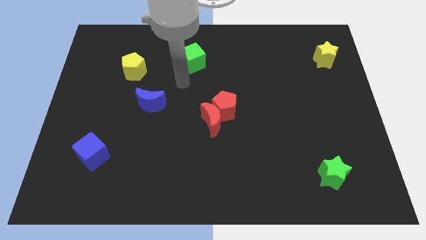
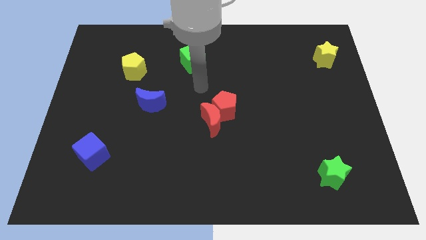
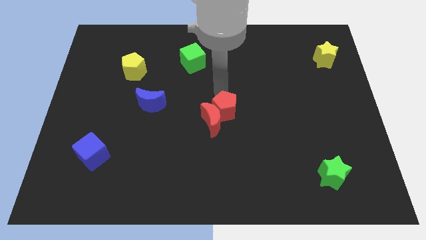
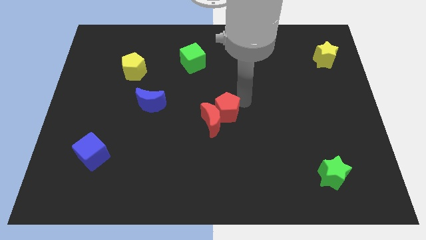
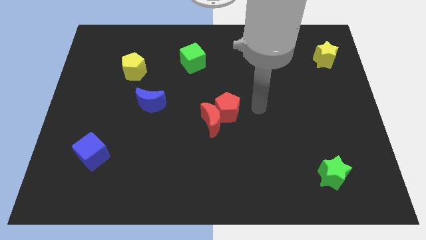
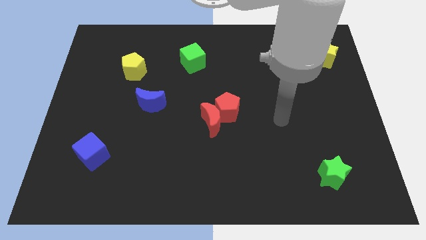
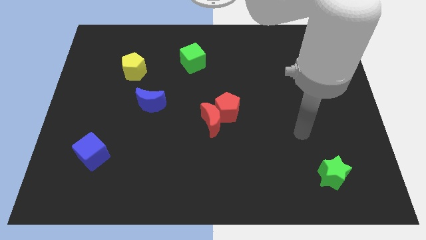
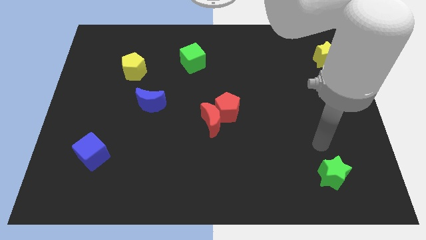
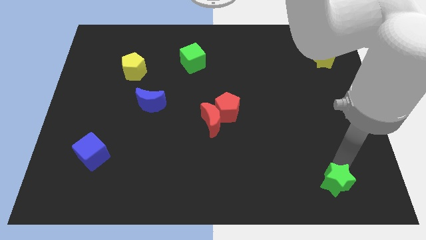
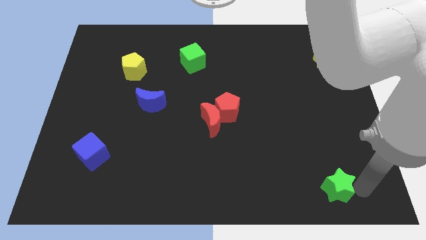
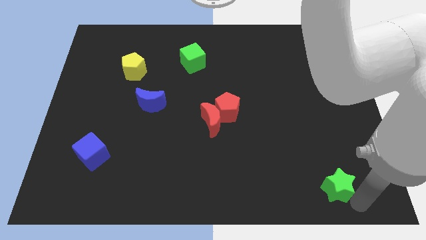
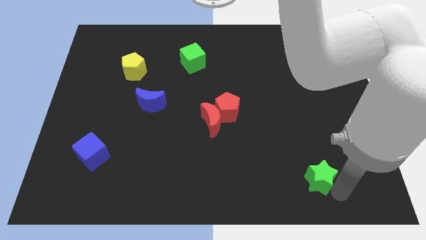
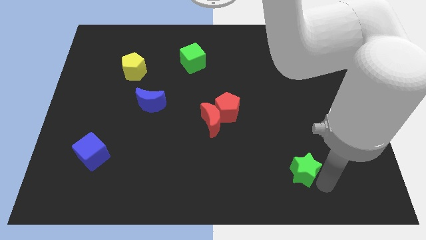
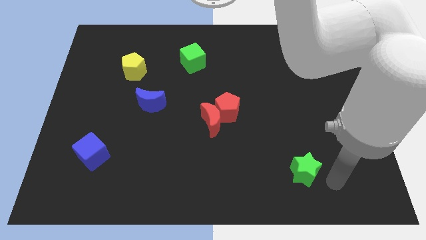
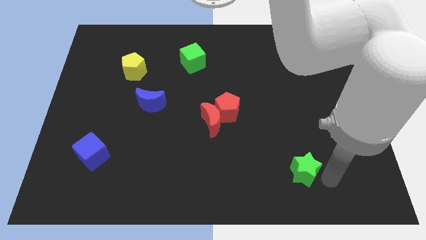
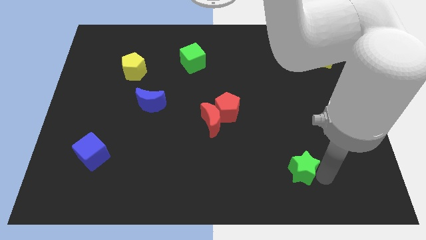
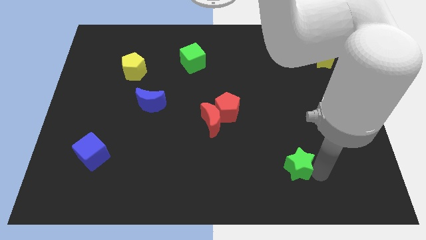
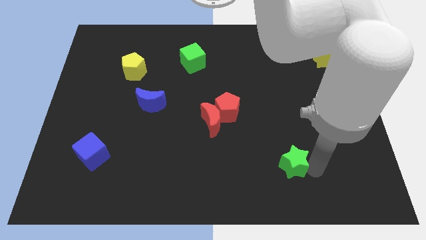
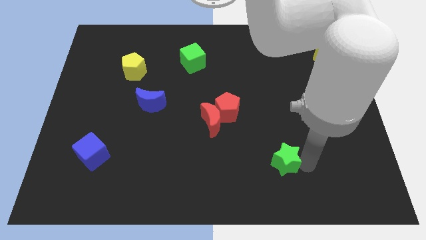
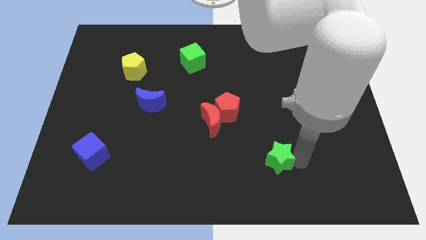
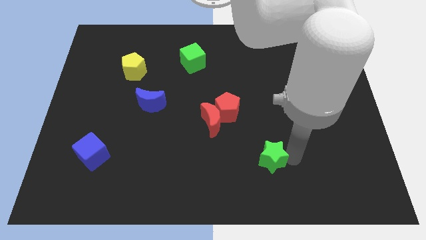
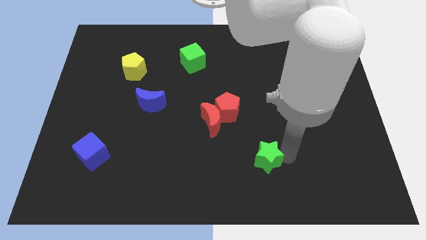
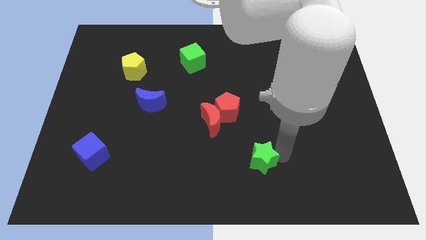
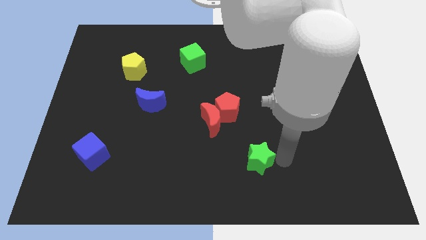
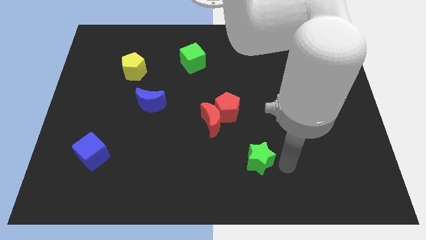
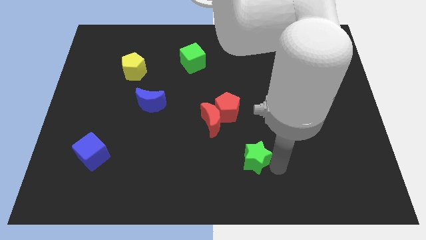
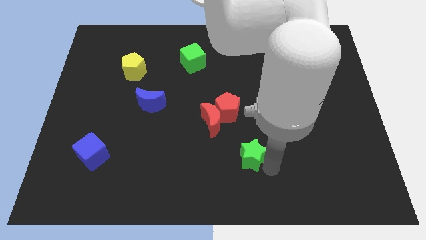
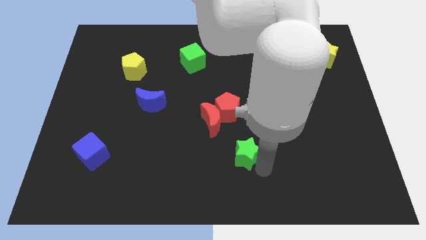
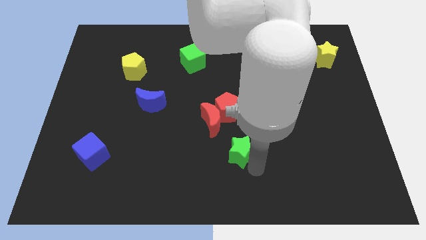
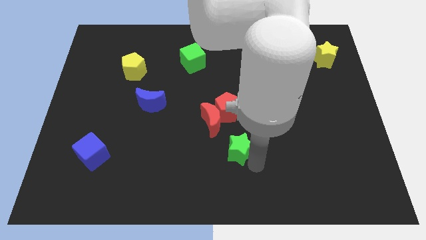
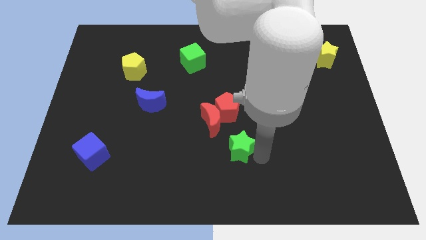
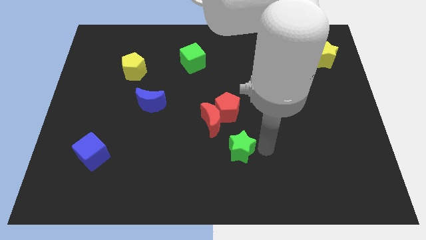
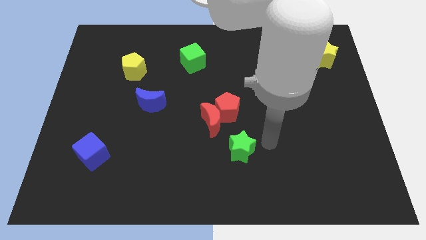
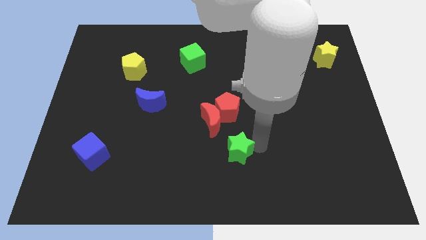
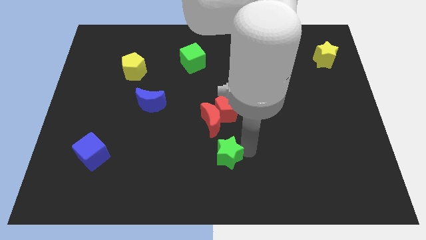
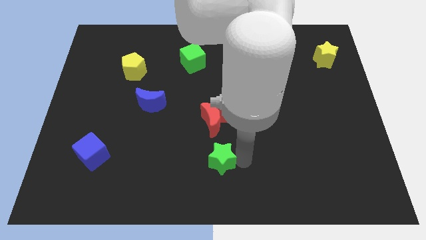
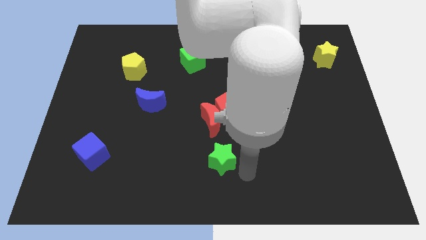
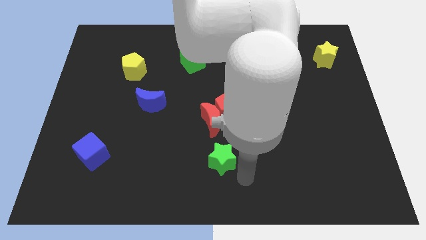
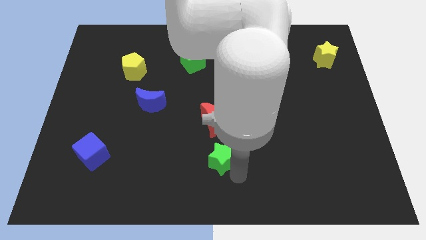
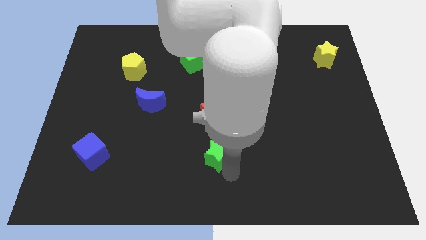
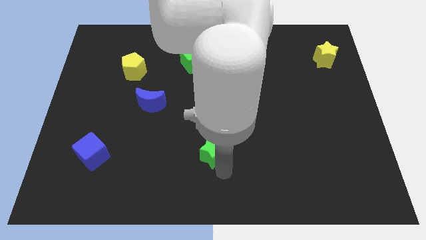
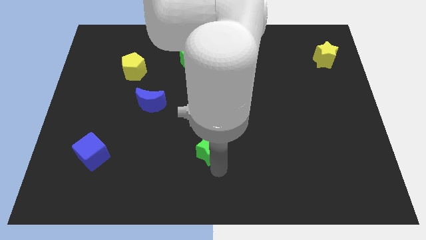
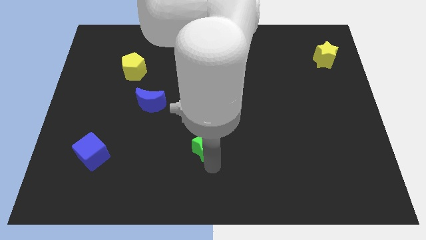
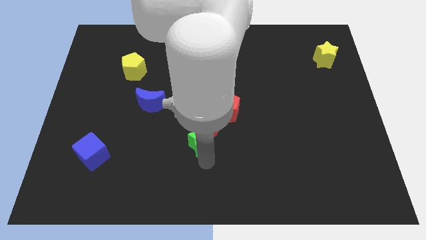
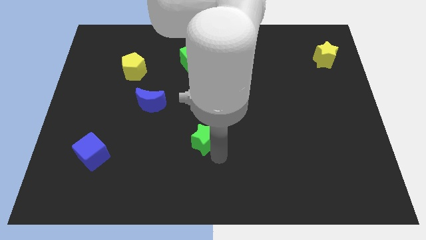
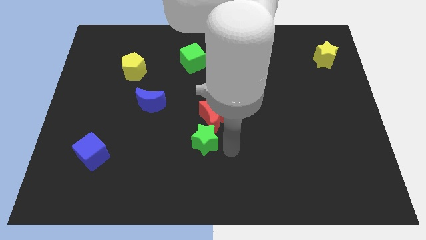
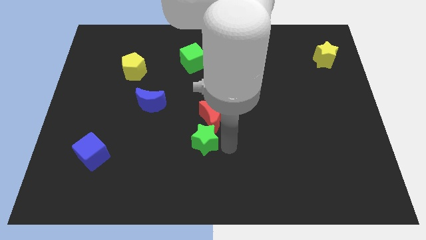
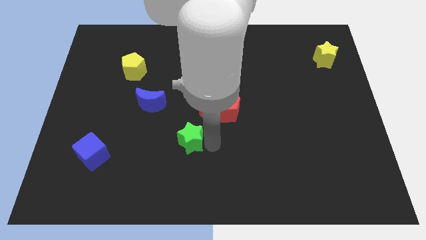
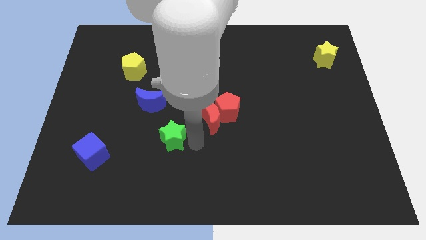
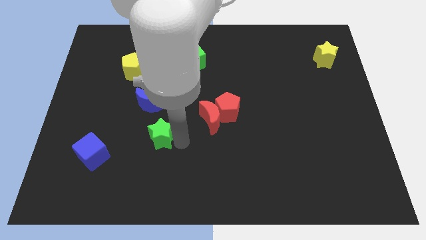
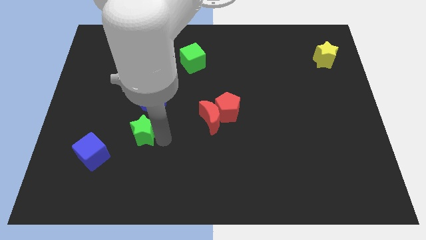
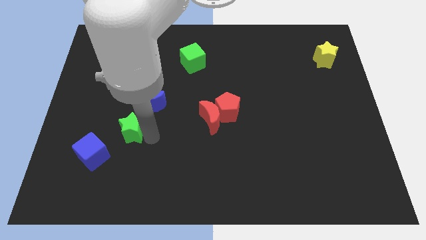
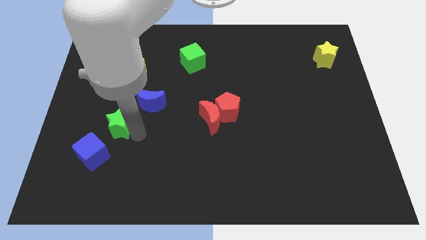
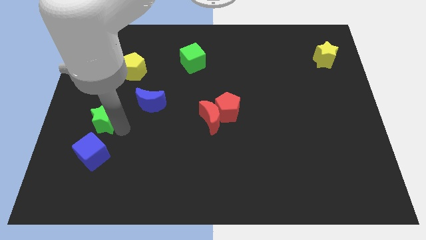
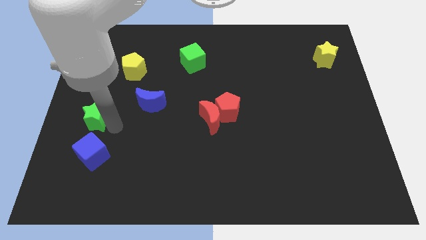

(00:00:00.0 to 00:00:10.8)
push the green star to the center left
